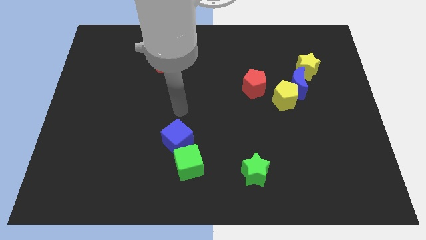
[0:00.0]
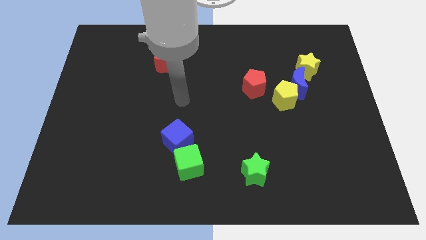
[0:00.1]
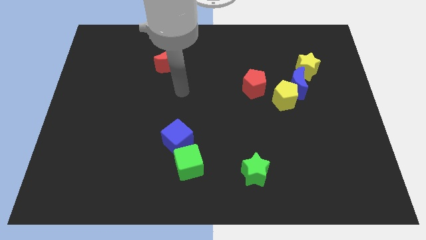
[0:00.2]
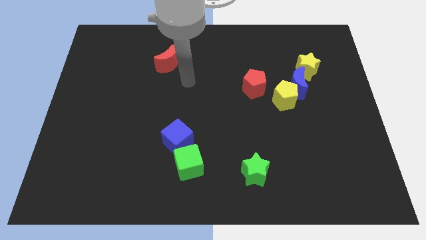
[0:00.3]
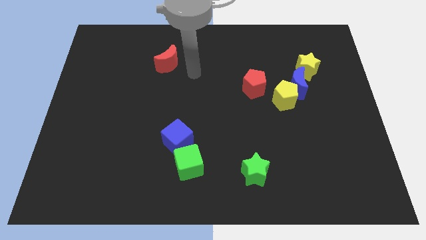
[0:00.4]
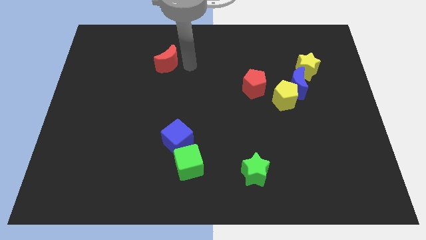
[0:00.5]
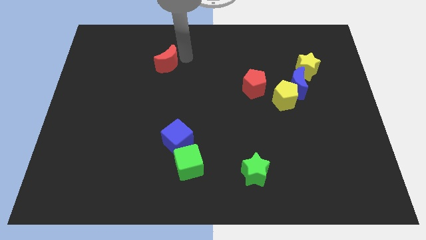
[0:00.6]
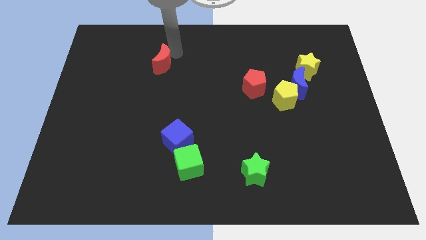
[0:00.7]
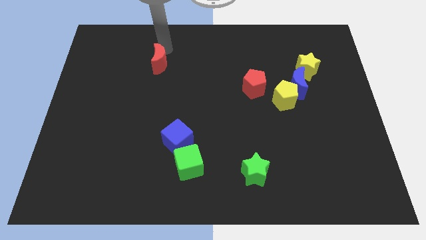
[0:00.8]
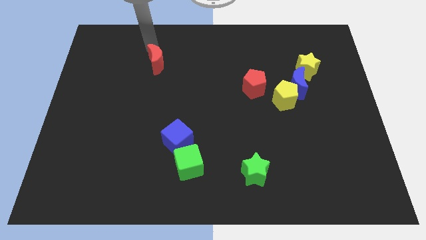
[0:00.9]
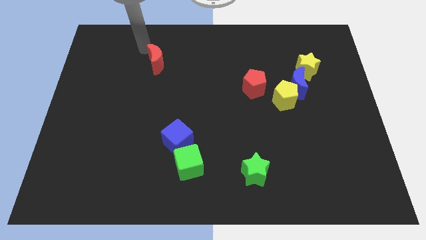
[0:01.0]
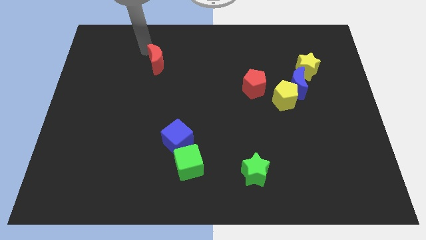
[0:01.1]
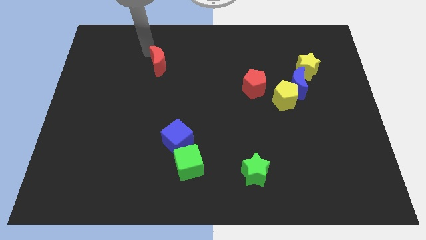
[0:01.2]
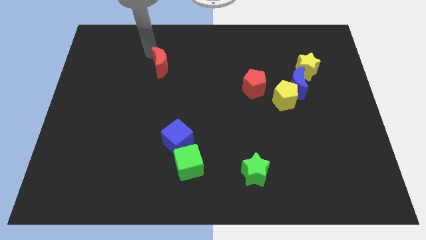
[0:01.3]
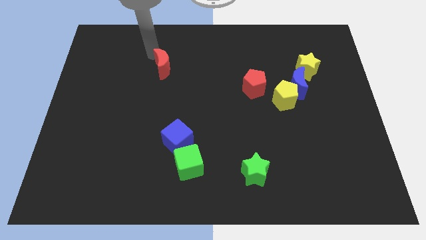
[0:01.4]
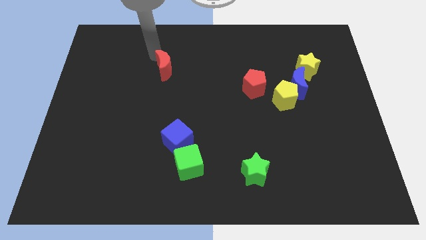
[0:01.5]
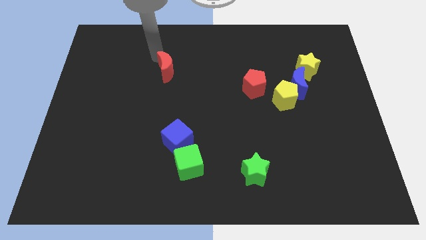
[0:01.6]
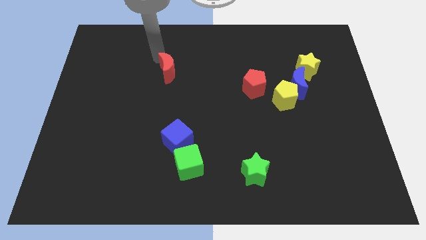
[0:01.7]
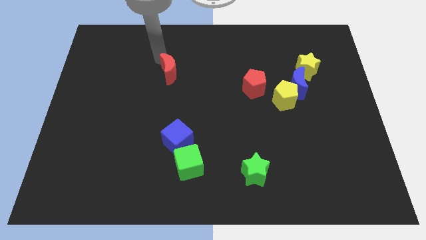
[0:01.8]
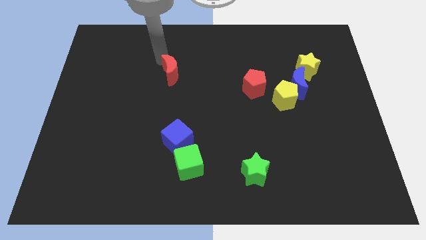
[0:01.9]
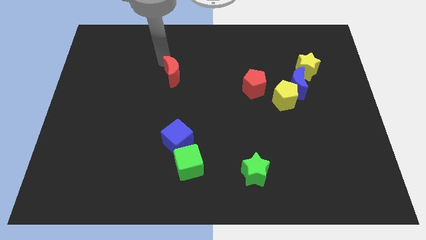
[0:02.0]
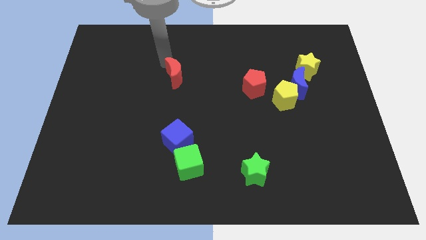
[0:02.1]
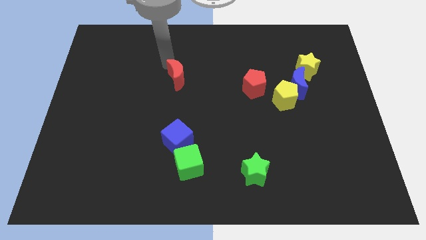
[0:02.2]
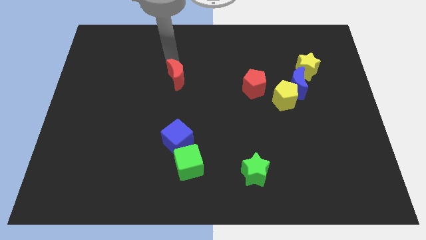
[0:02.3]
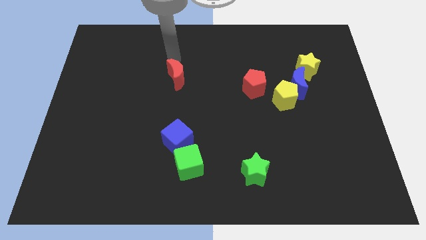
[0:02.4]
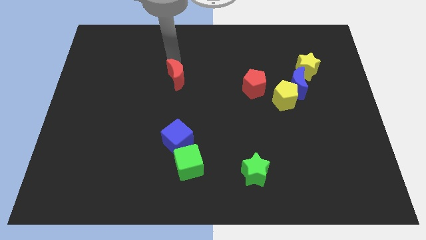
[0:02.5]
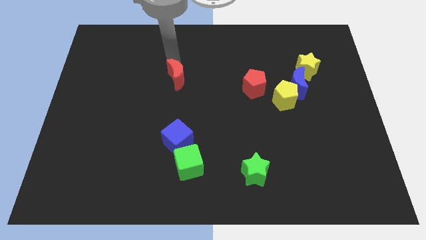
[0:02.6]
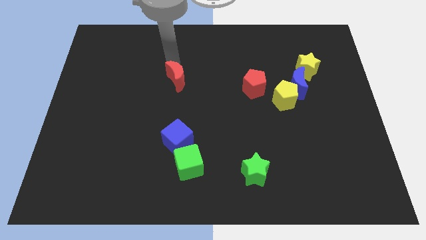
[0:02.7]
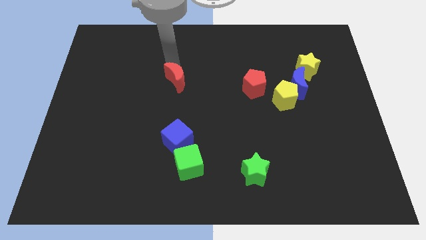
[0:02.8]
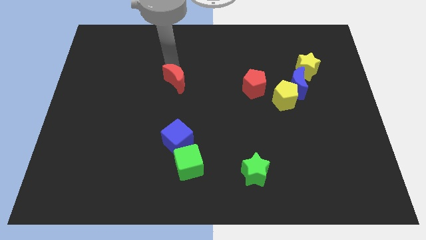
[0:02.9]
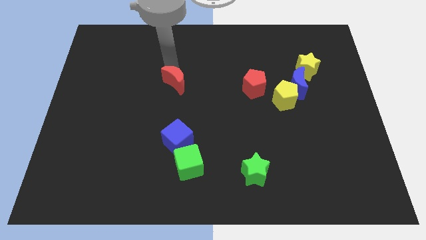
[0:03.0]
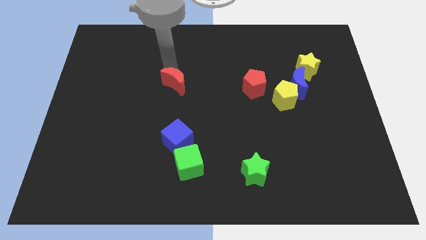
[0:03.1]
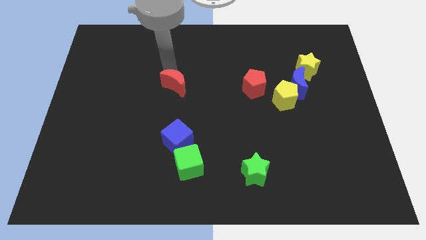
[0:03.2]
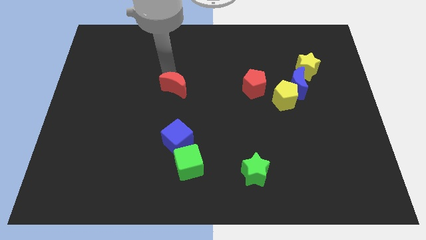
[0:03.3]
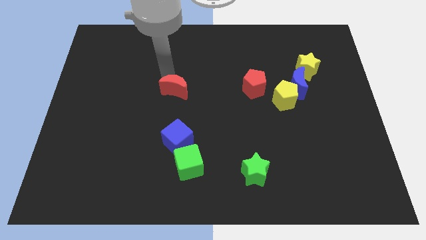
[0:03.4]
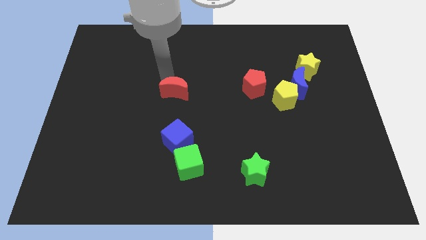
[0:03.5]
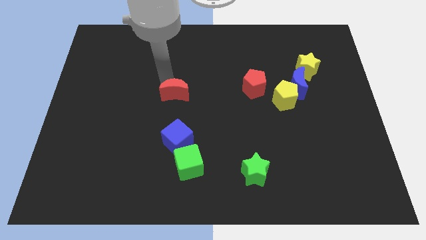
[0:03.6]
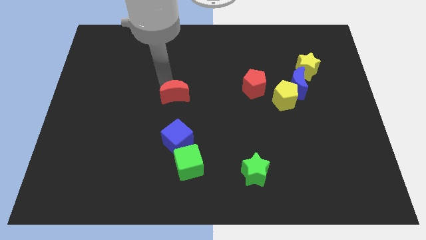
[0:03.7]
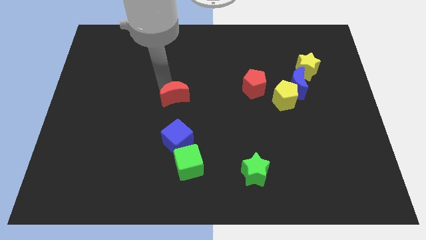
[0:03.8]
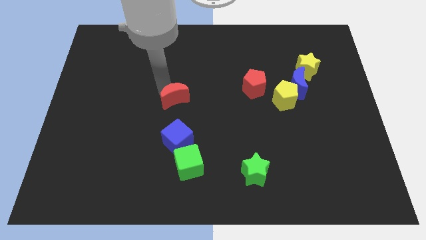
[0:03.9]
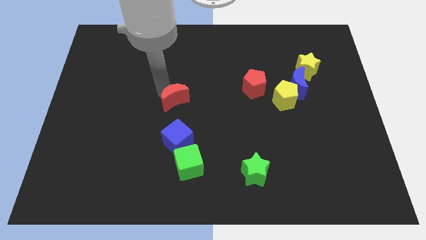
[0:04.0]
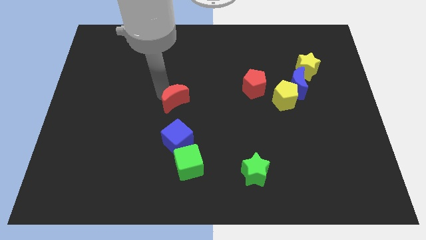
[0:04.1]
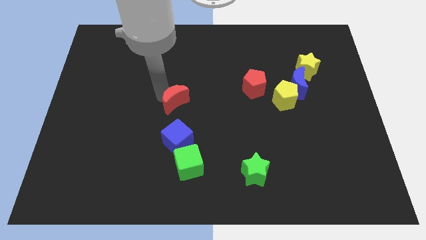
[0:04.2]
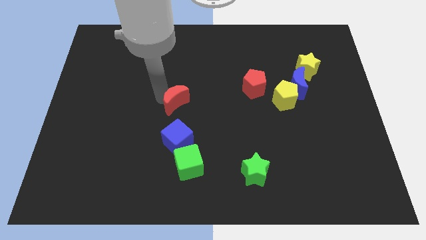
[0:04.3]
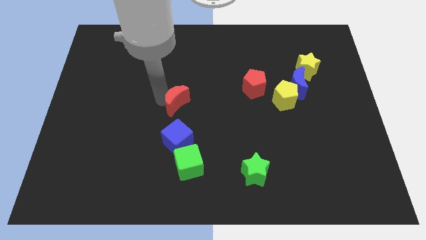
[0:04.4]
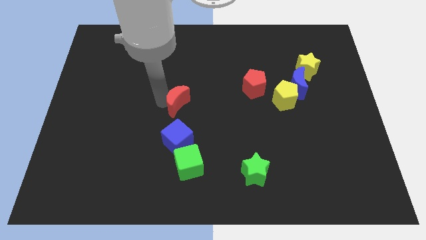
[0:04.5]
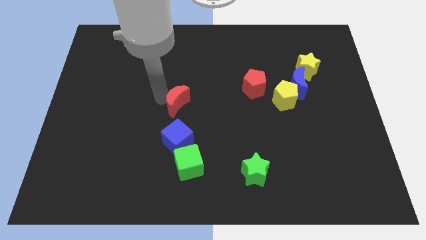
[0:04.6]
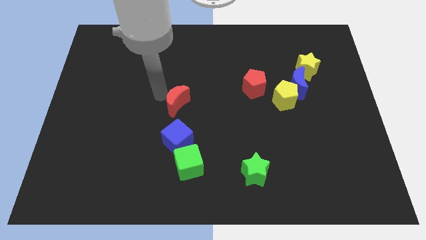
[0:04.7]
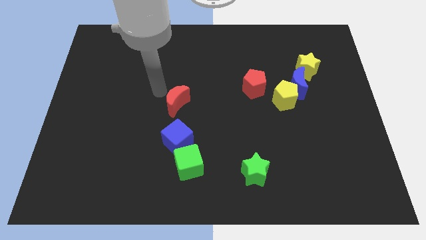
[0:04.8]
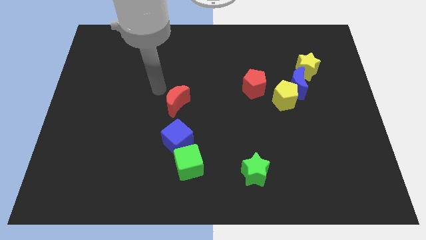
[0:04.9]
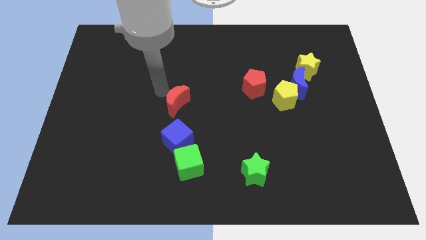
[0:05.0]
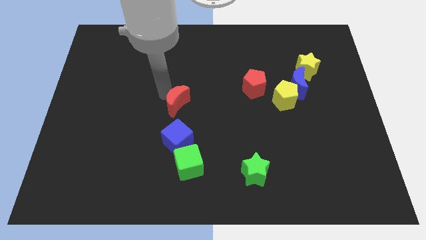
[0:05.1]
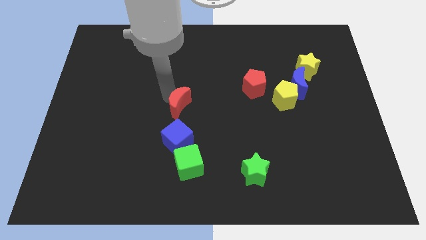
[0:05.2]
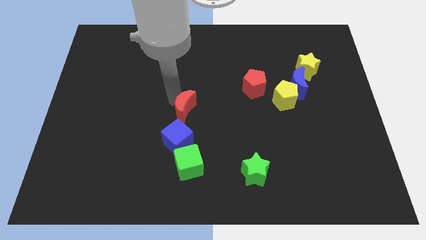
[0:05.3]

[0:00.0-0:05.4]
put the red moon to the top side of the green cube

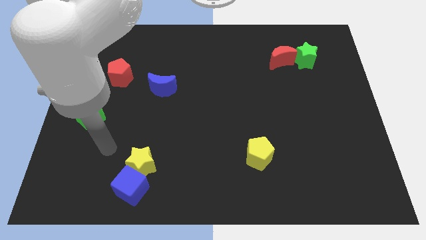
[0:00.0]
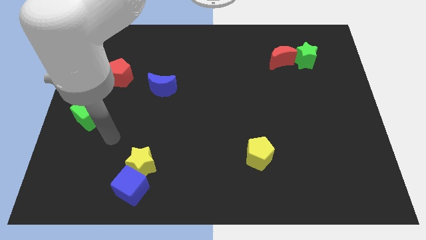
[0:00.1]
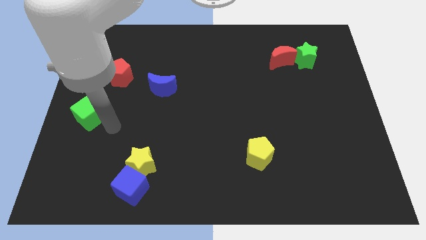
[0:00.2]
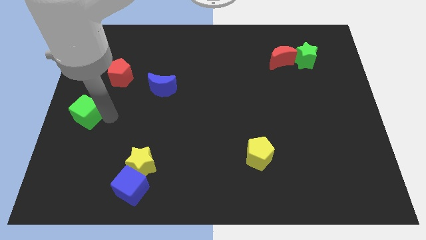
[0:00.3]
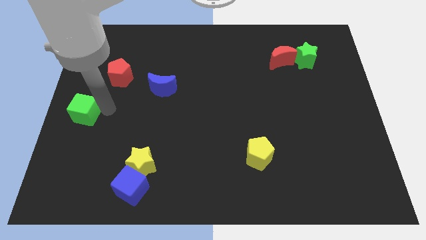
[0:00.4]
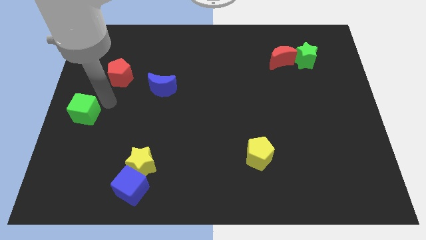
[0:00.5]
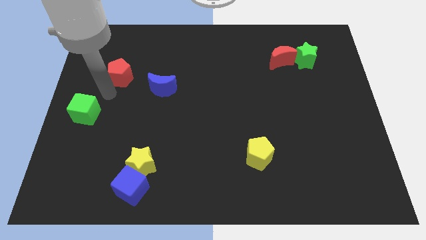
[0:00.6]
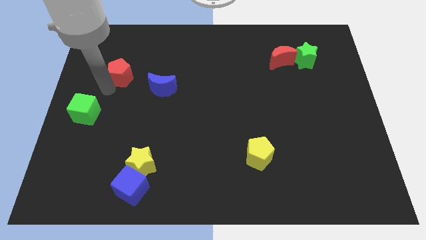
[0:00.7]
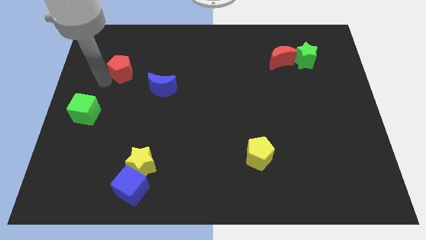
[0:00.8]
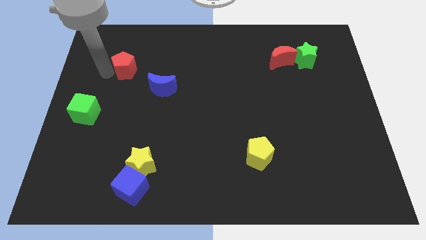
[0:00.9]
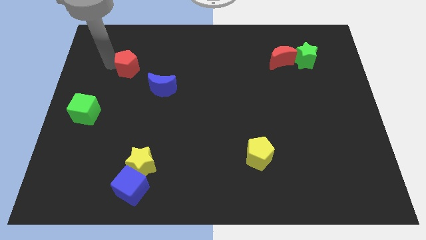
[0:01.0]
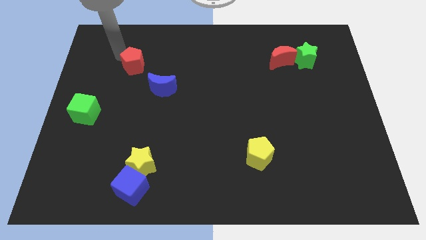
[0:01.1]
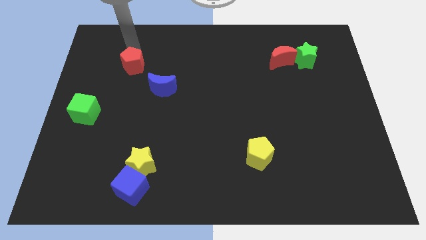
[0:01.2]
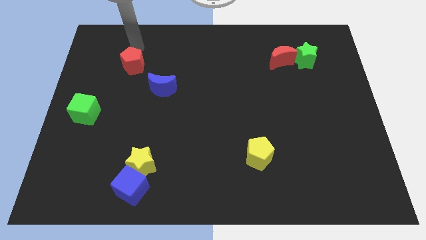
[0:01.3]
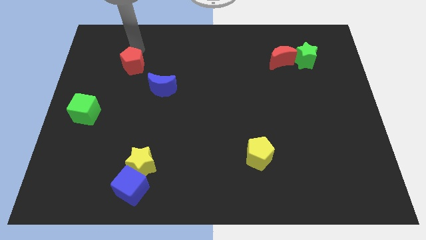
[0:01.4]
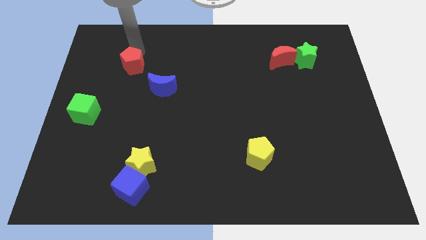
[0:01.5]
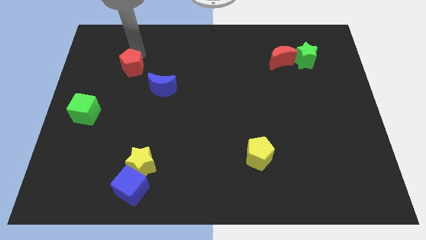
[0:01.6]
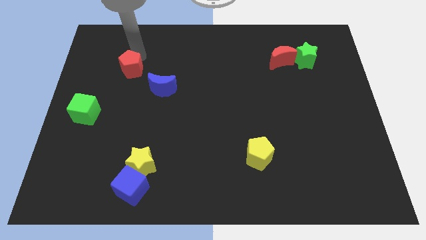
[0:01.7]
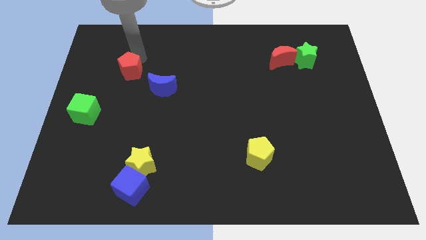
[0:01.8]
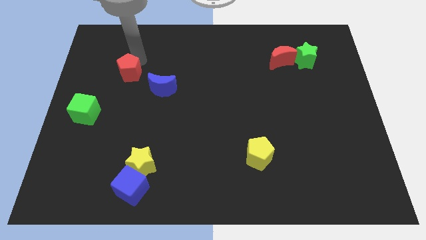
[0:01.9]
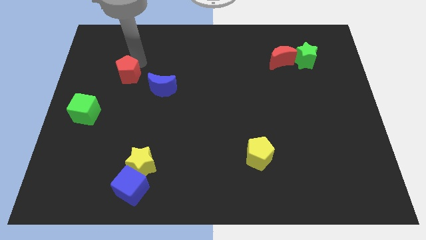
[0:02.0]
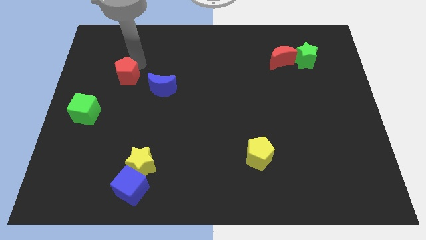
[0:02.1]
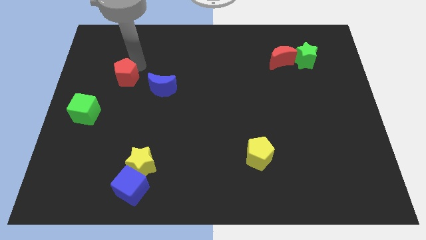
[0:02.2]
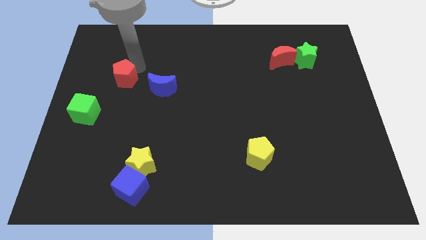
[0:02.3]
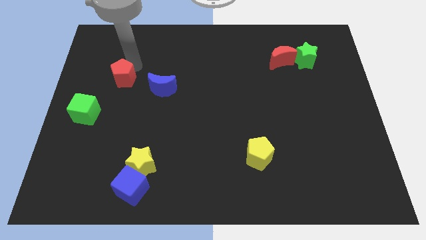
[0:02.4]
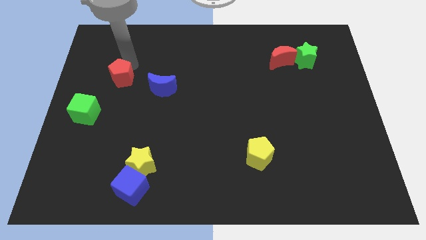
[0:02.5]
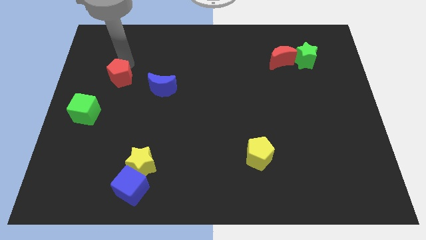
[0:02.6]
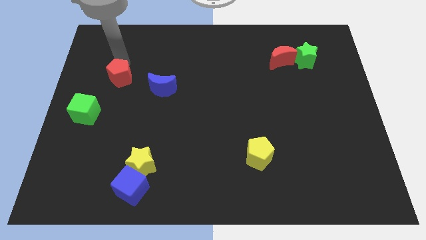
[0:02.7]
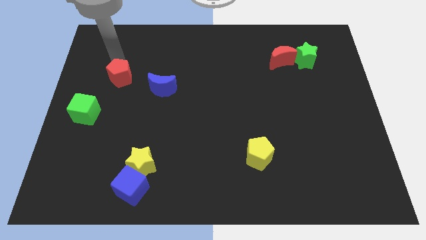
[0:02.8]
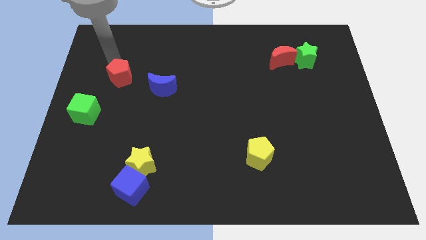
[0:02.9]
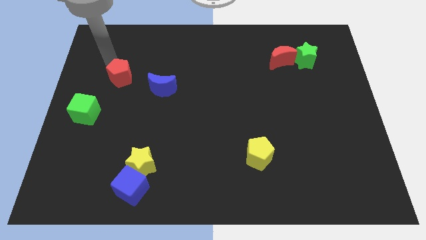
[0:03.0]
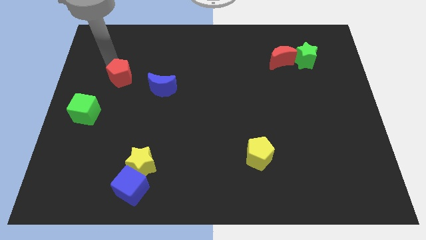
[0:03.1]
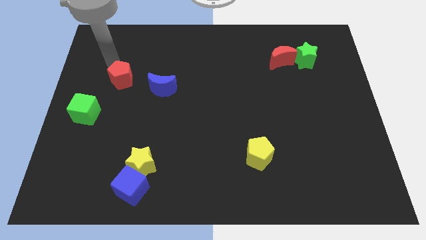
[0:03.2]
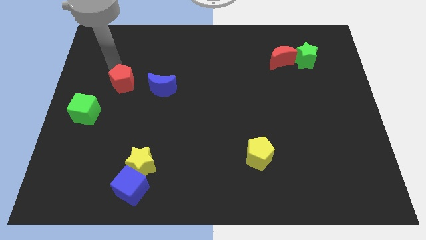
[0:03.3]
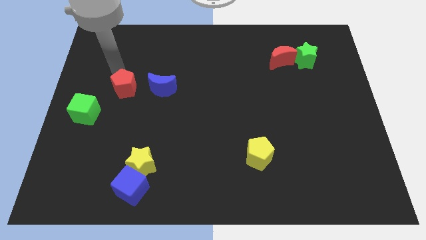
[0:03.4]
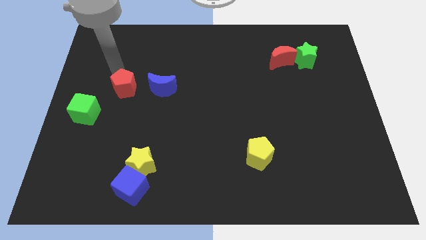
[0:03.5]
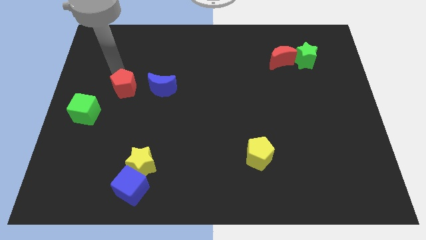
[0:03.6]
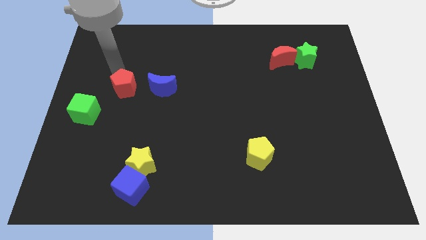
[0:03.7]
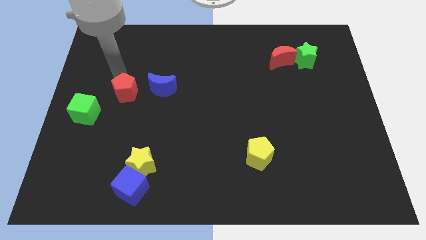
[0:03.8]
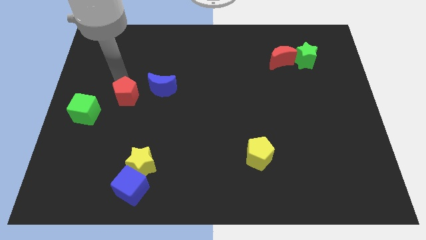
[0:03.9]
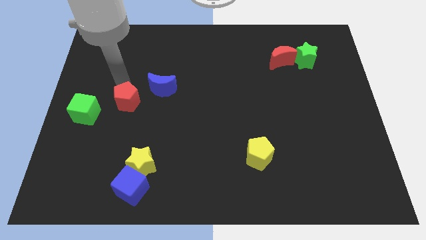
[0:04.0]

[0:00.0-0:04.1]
put the red pentagon just right of the green cube
